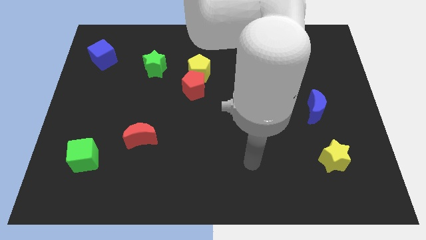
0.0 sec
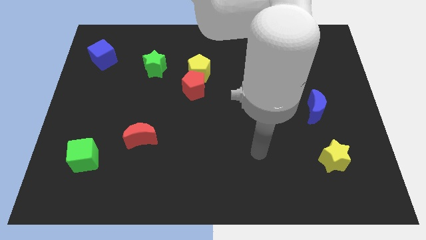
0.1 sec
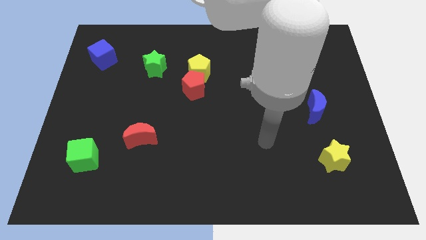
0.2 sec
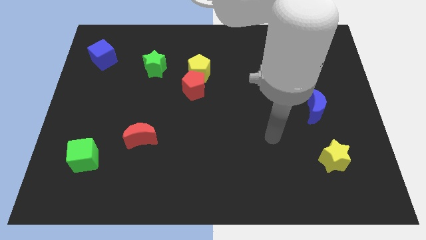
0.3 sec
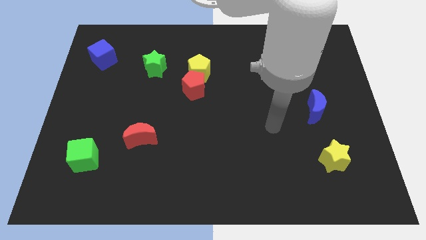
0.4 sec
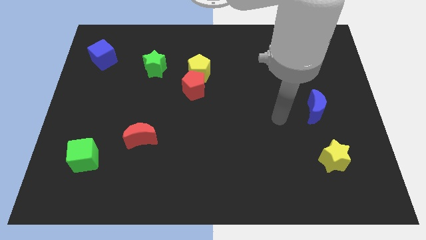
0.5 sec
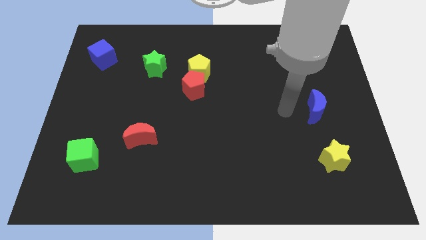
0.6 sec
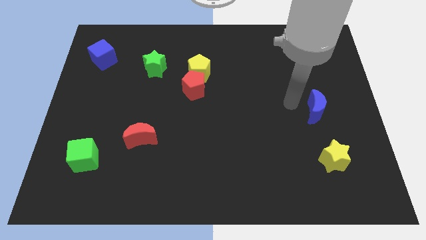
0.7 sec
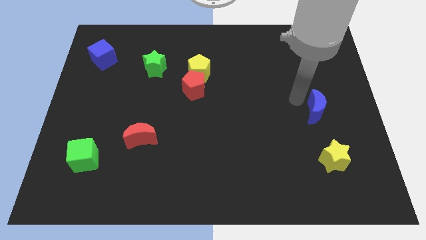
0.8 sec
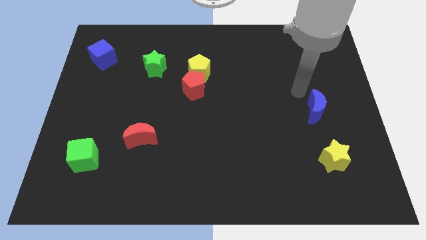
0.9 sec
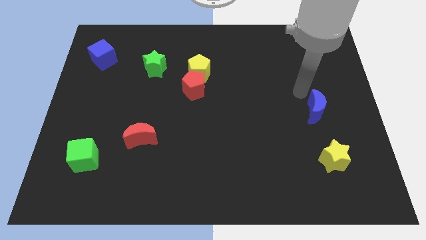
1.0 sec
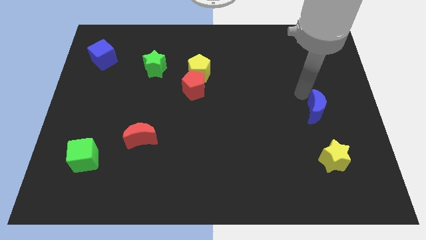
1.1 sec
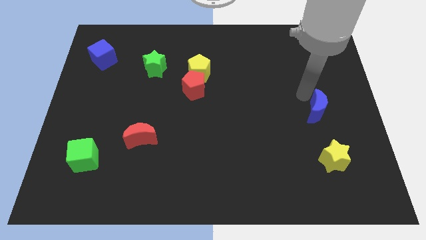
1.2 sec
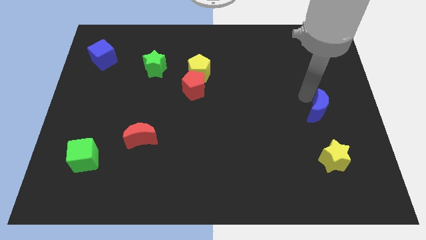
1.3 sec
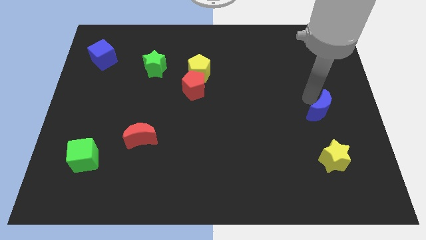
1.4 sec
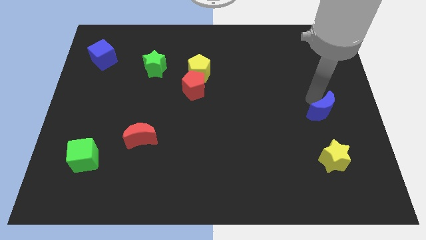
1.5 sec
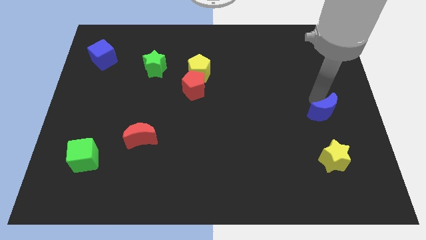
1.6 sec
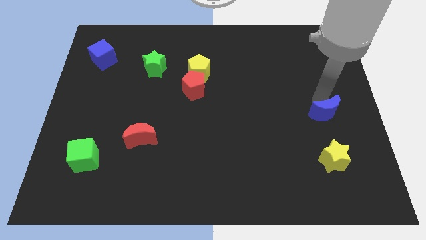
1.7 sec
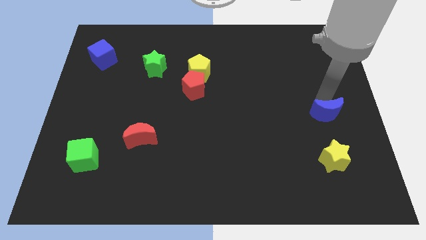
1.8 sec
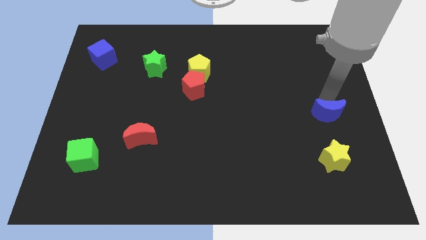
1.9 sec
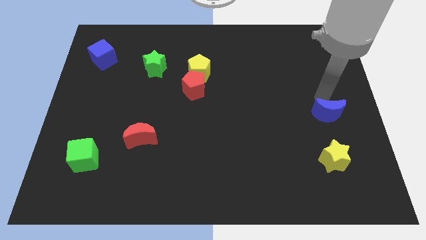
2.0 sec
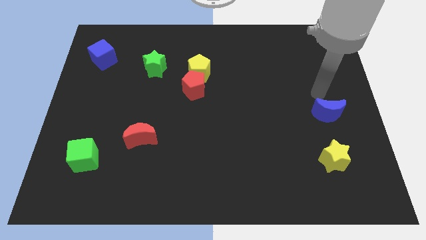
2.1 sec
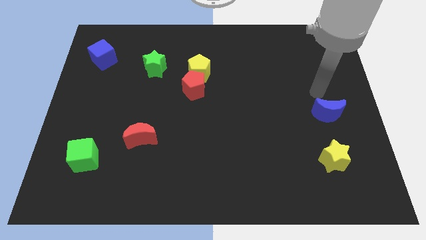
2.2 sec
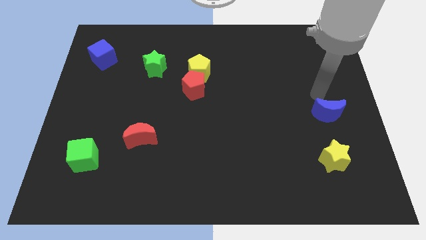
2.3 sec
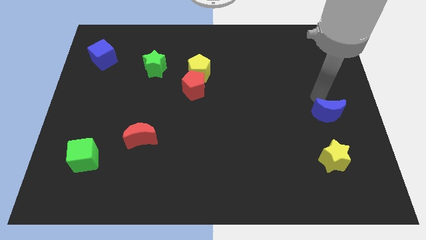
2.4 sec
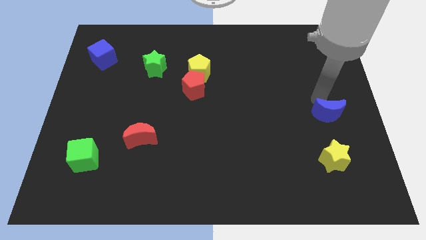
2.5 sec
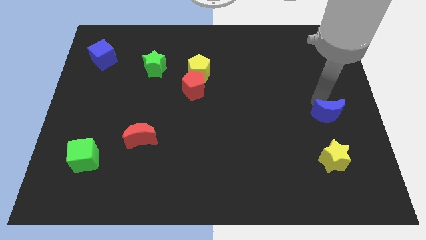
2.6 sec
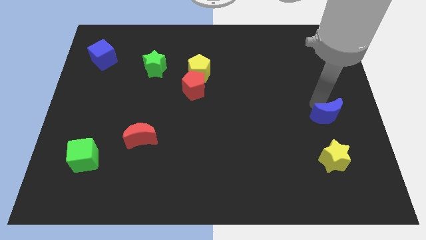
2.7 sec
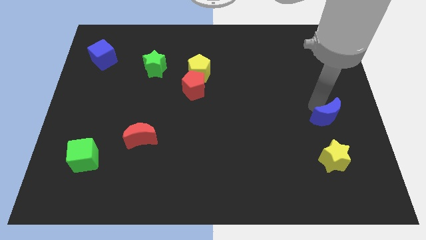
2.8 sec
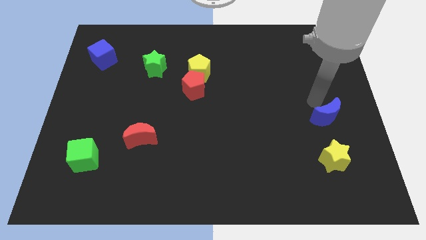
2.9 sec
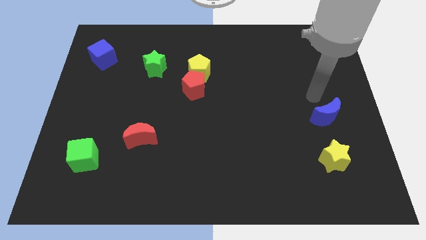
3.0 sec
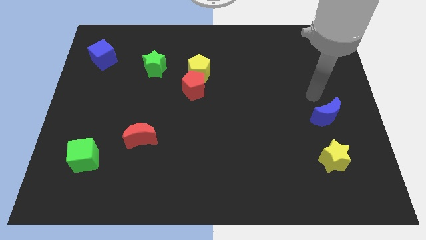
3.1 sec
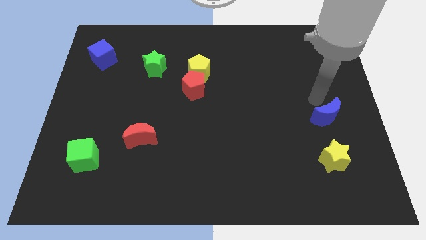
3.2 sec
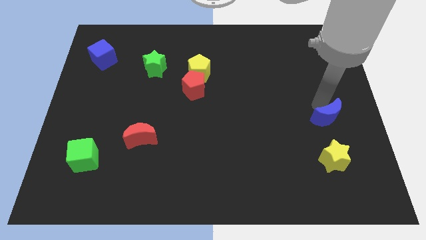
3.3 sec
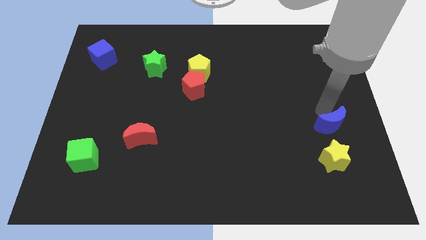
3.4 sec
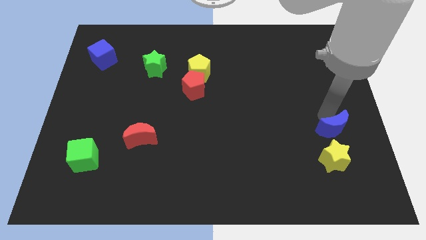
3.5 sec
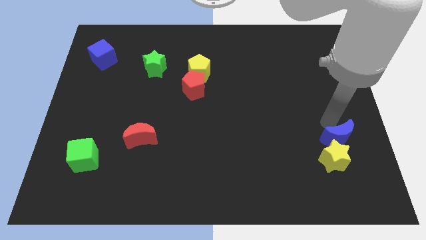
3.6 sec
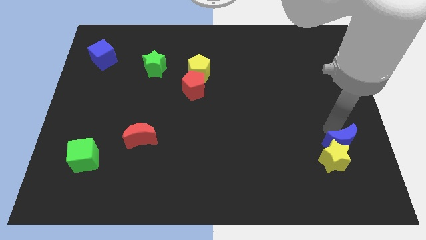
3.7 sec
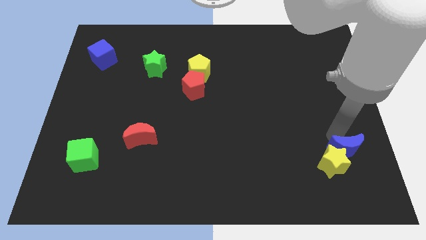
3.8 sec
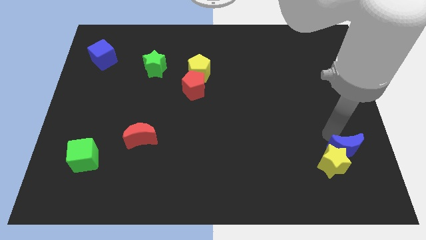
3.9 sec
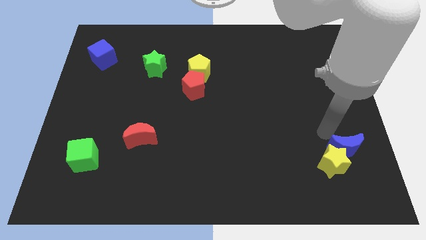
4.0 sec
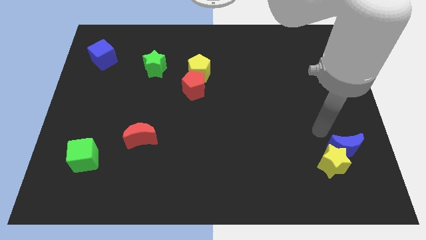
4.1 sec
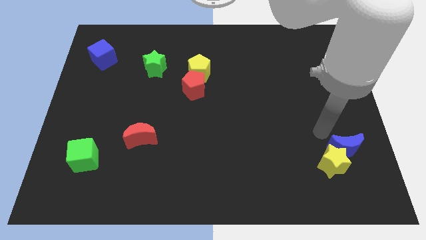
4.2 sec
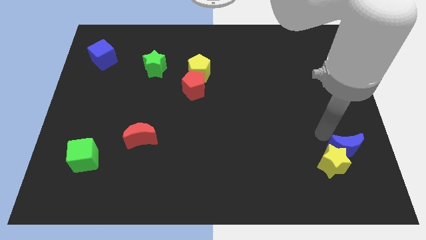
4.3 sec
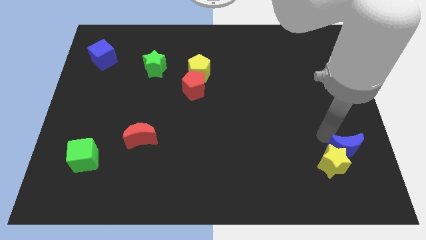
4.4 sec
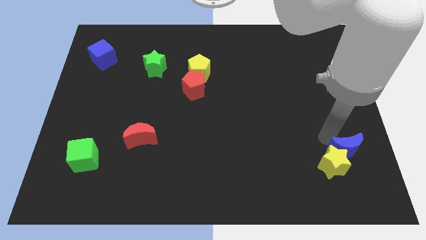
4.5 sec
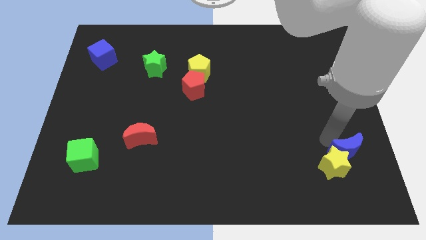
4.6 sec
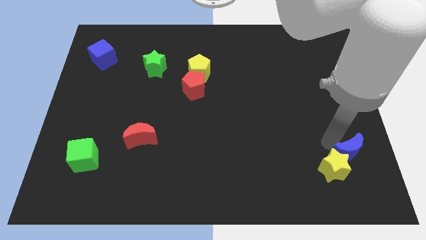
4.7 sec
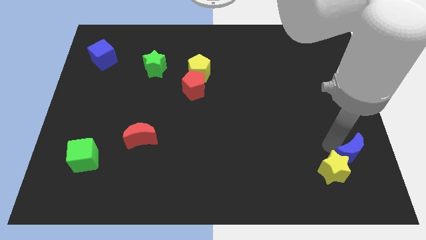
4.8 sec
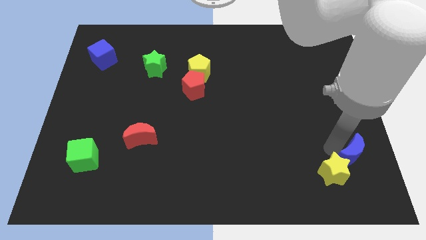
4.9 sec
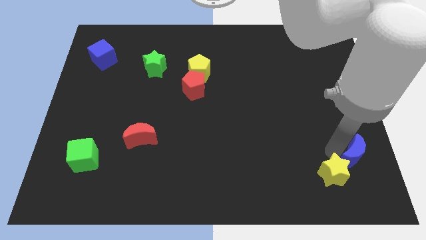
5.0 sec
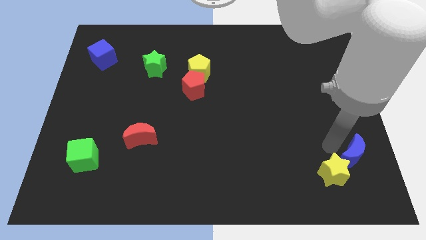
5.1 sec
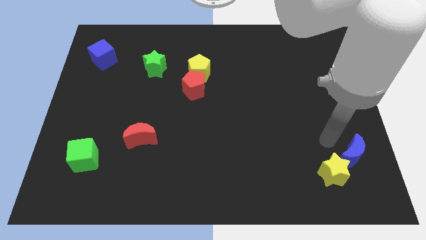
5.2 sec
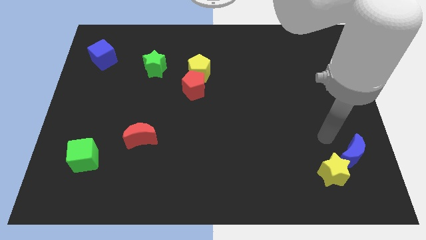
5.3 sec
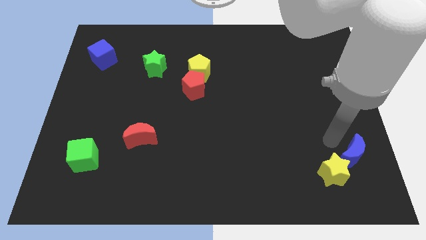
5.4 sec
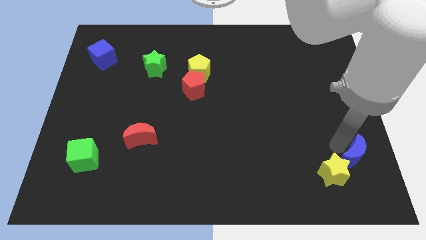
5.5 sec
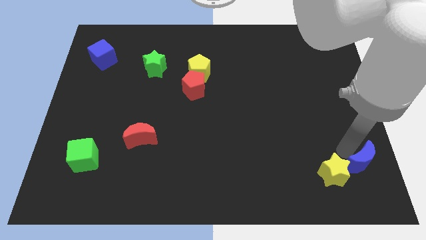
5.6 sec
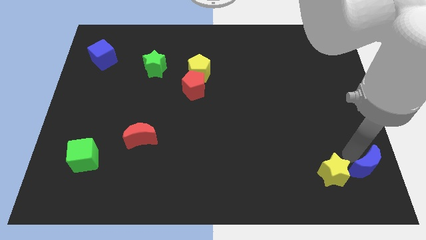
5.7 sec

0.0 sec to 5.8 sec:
move the blue moon to the lower right corner

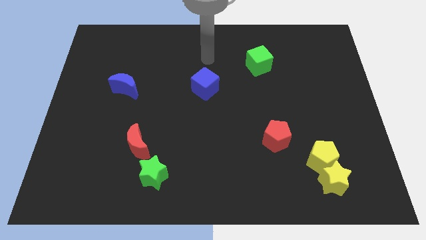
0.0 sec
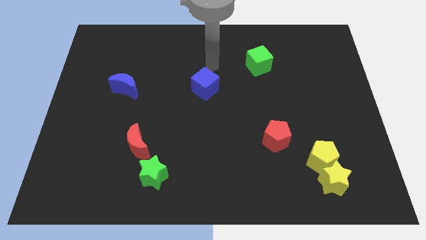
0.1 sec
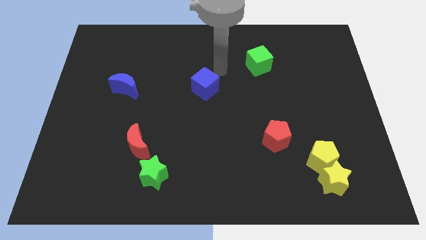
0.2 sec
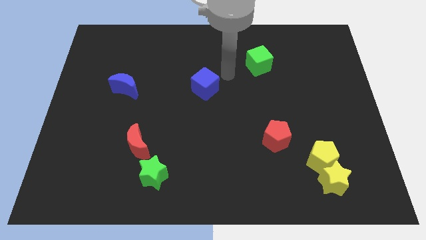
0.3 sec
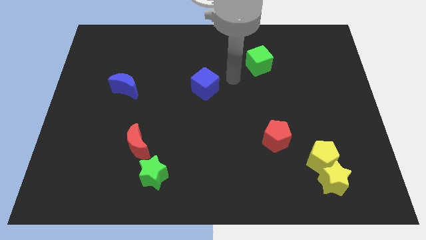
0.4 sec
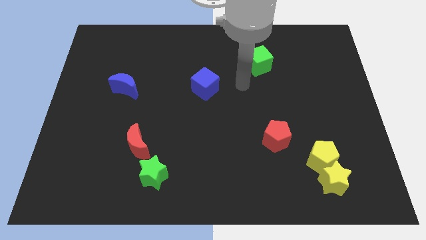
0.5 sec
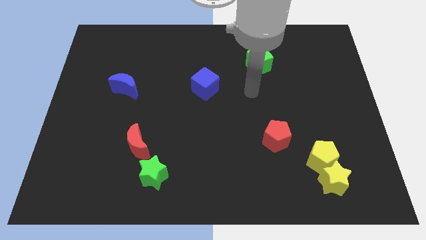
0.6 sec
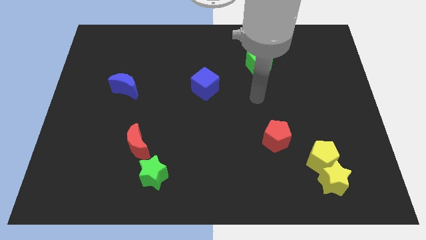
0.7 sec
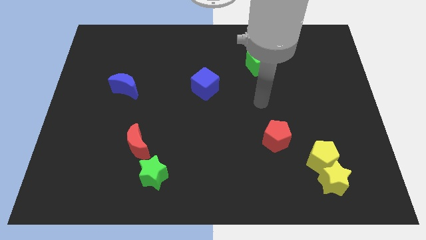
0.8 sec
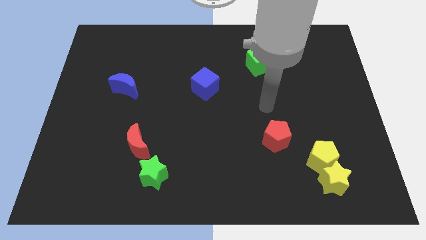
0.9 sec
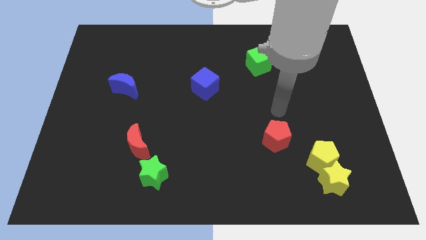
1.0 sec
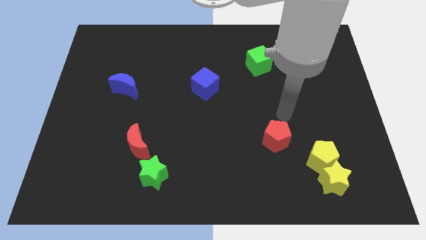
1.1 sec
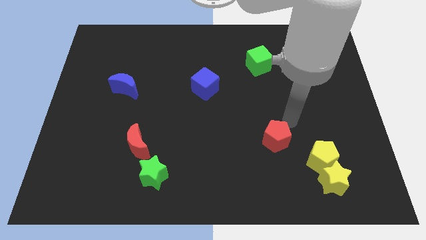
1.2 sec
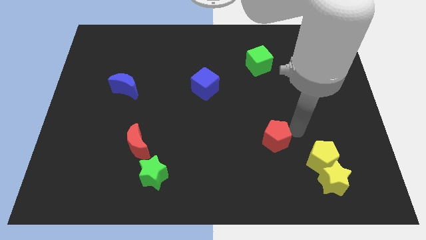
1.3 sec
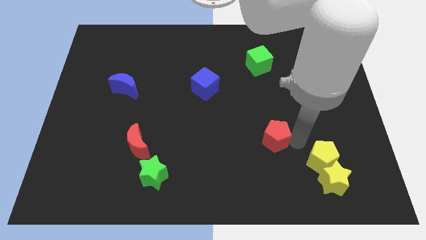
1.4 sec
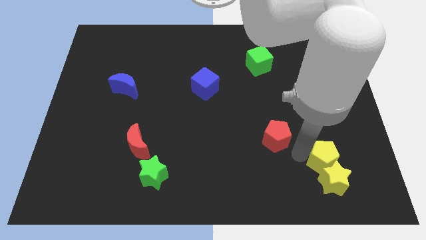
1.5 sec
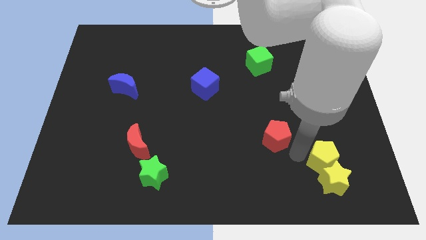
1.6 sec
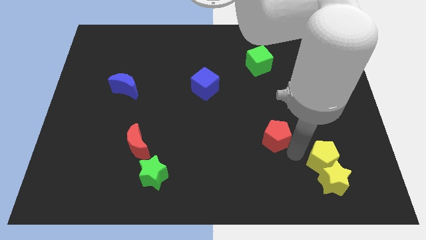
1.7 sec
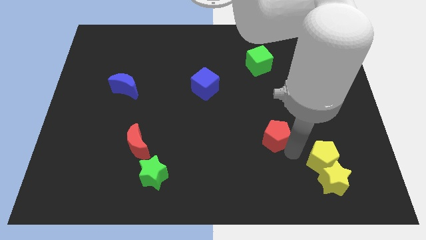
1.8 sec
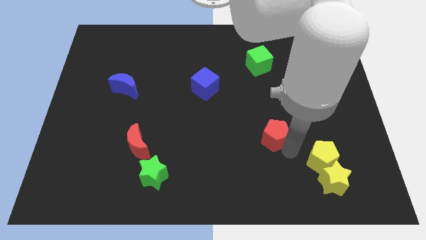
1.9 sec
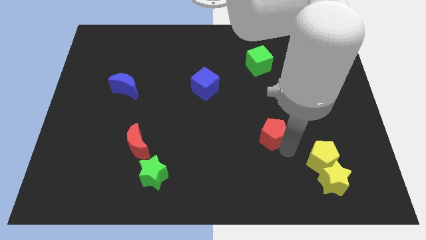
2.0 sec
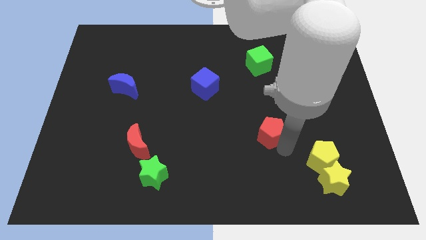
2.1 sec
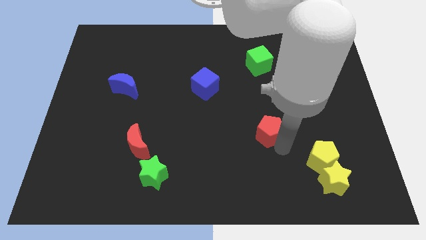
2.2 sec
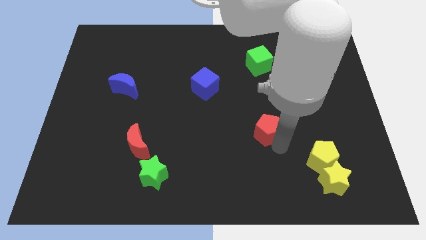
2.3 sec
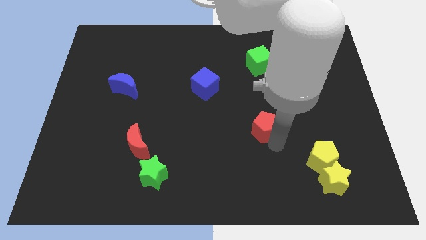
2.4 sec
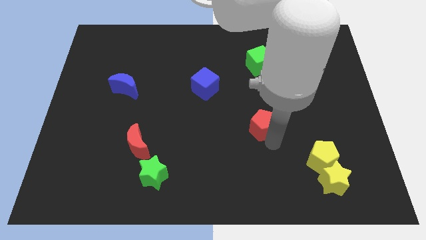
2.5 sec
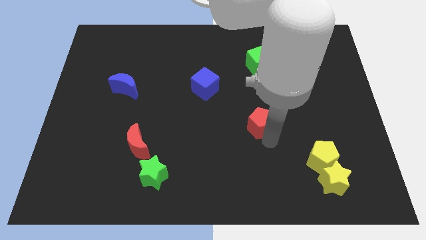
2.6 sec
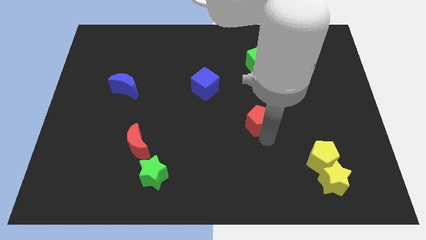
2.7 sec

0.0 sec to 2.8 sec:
put the red pentagon to the center of the board
